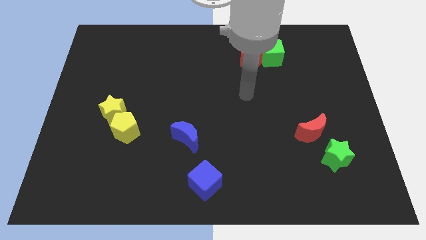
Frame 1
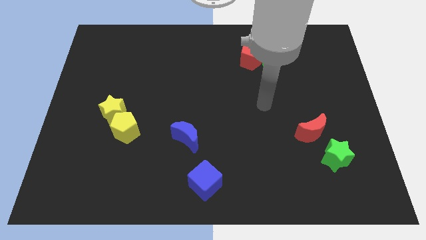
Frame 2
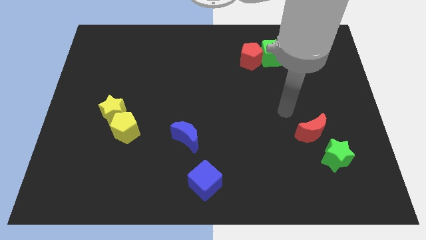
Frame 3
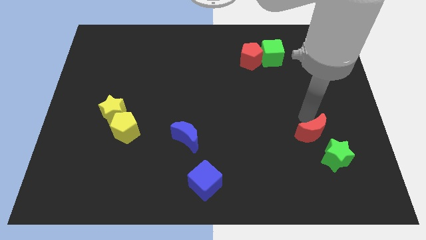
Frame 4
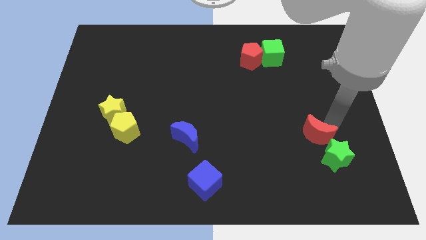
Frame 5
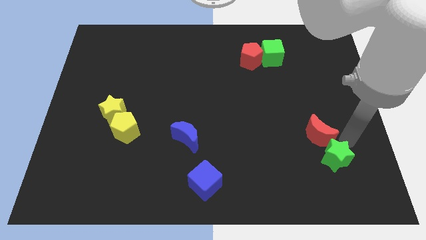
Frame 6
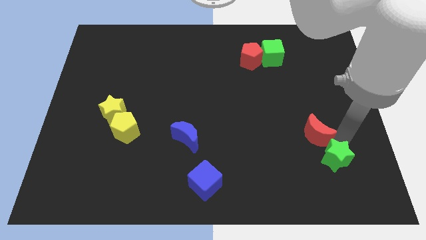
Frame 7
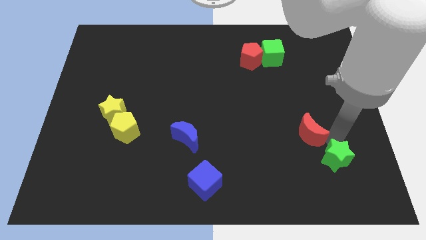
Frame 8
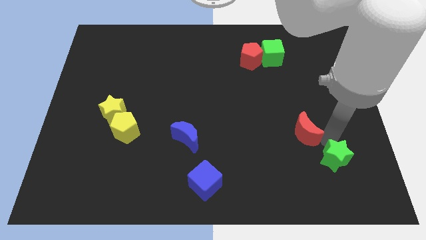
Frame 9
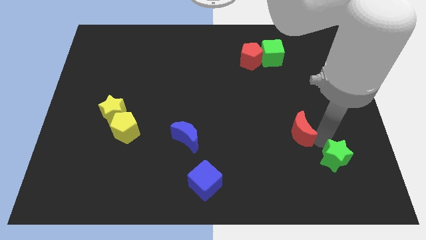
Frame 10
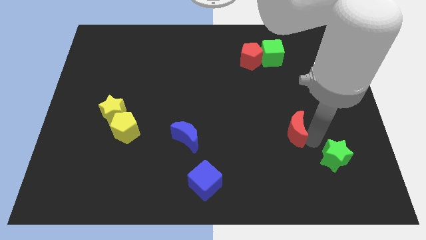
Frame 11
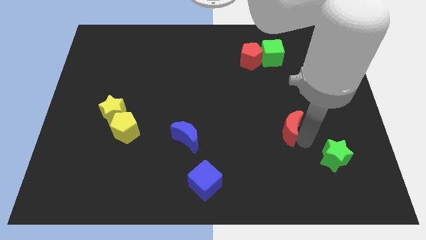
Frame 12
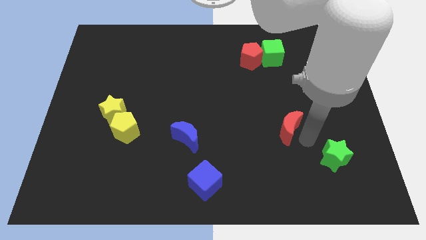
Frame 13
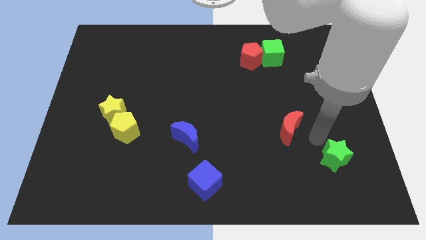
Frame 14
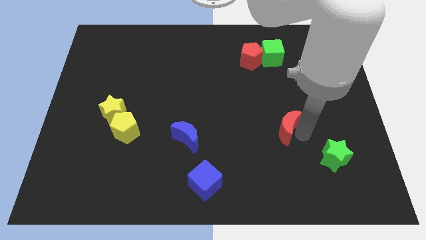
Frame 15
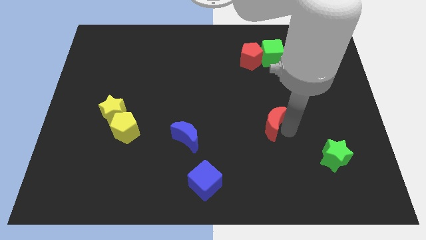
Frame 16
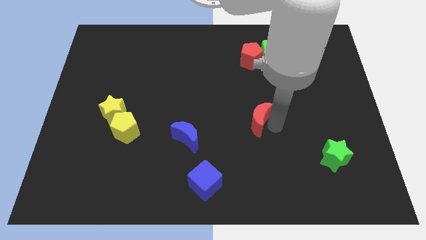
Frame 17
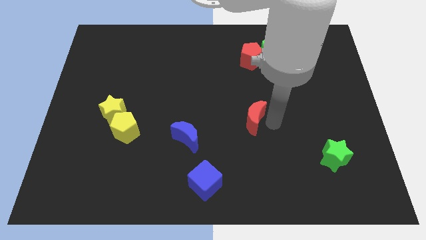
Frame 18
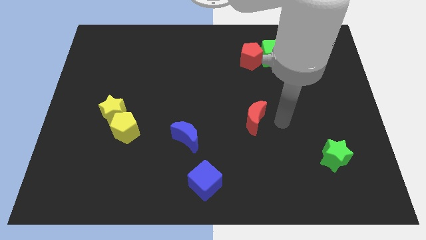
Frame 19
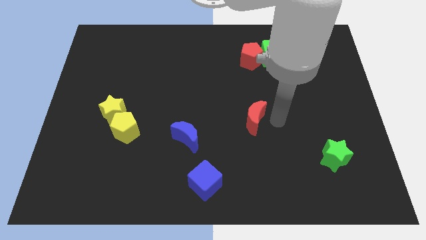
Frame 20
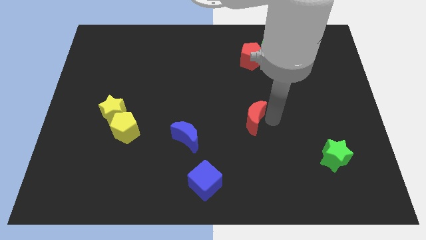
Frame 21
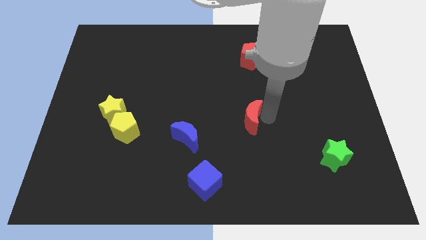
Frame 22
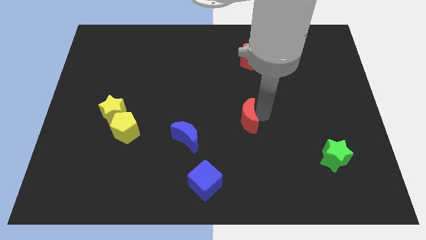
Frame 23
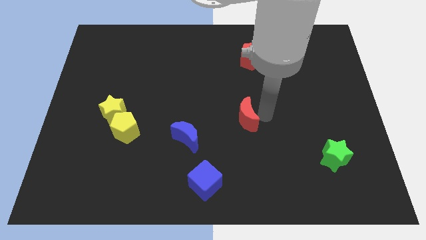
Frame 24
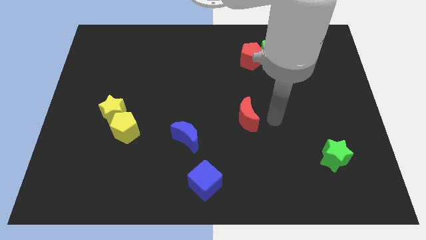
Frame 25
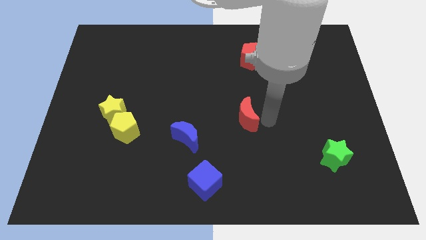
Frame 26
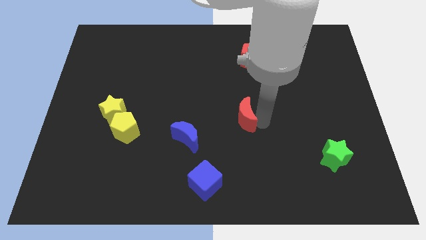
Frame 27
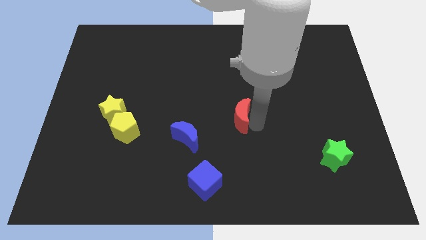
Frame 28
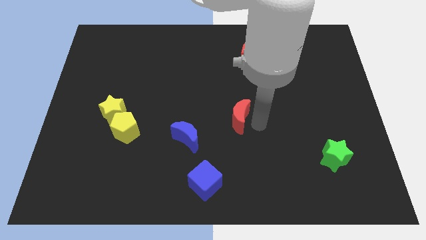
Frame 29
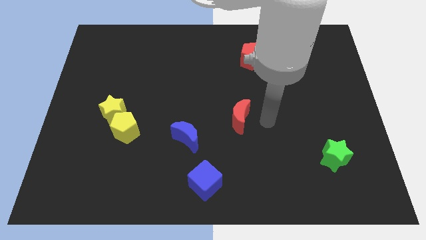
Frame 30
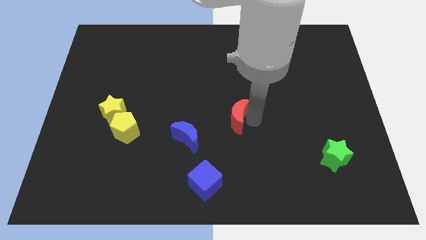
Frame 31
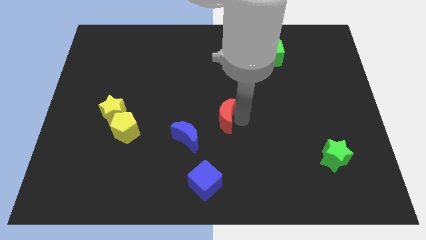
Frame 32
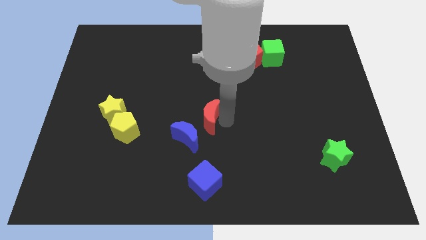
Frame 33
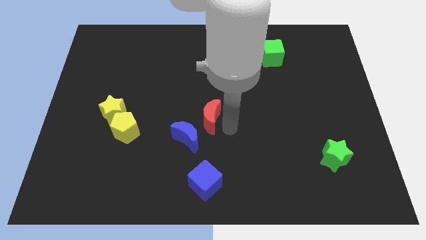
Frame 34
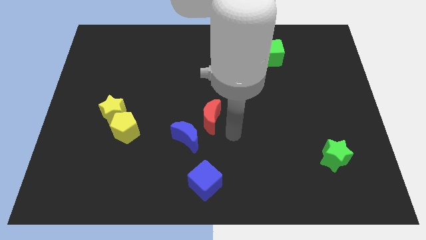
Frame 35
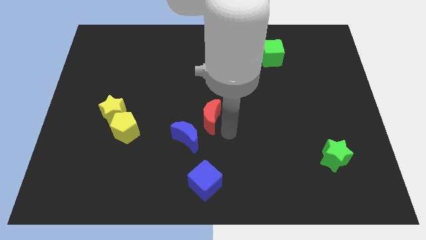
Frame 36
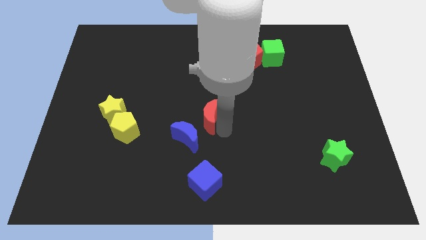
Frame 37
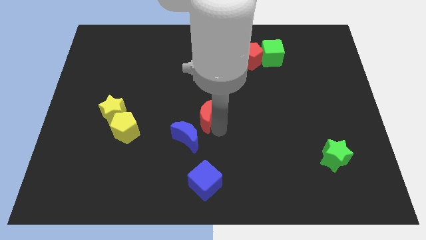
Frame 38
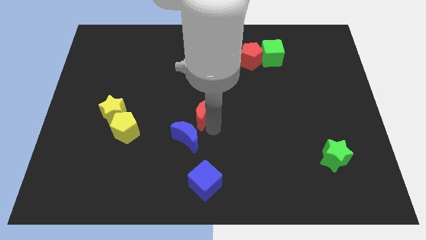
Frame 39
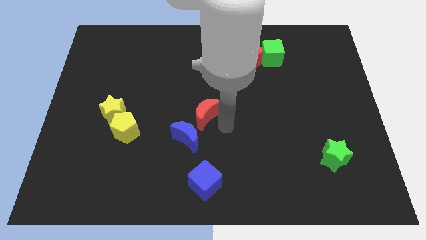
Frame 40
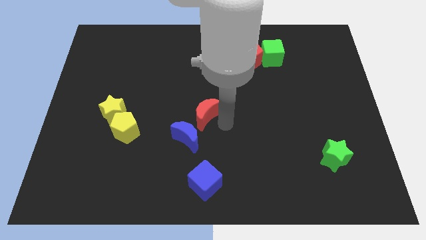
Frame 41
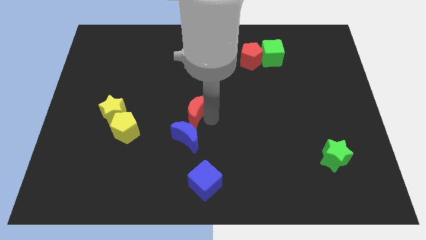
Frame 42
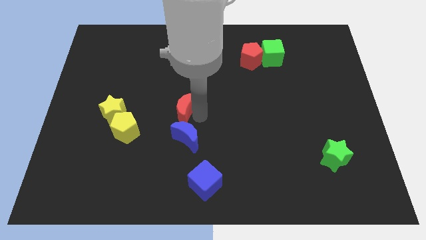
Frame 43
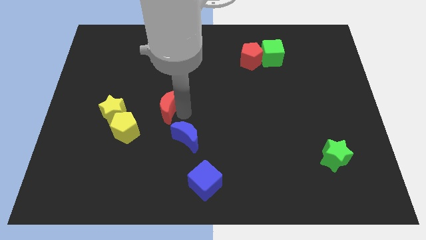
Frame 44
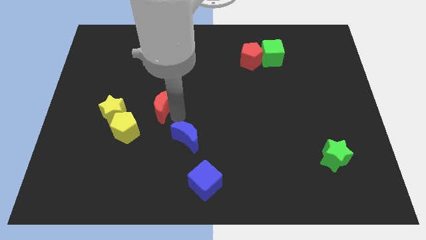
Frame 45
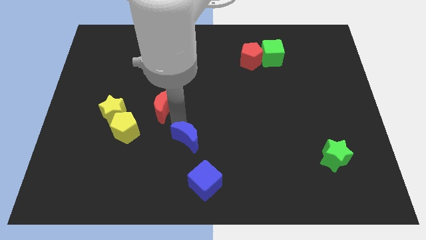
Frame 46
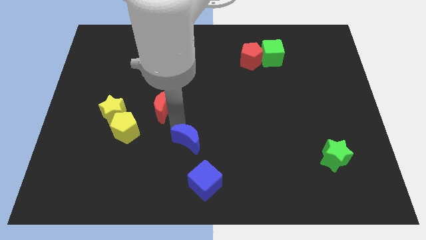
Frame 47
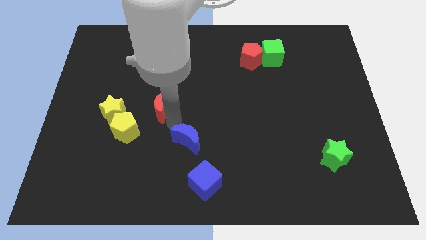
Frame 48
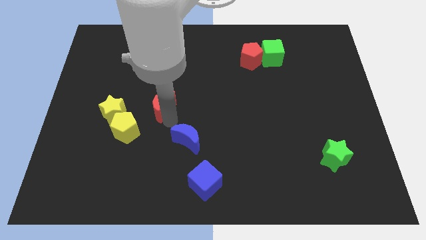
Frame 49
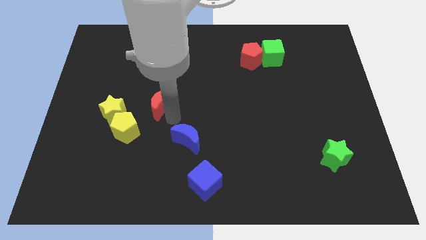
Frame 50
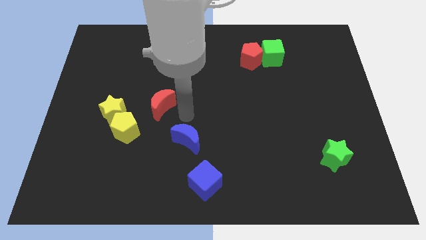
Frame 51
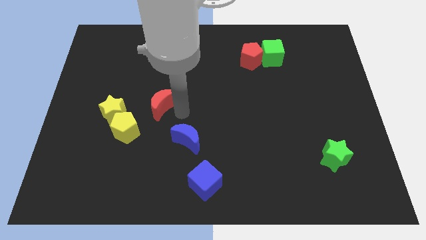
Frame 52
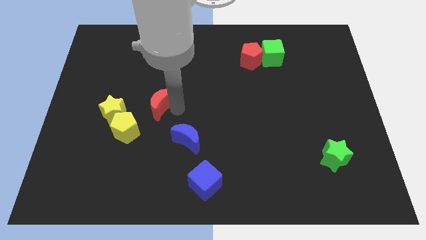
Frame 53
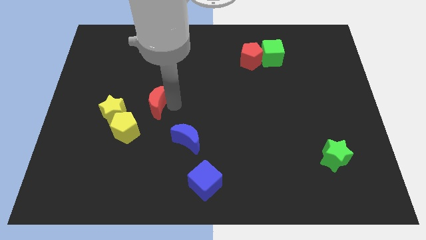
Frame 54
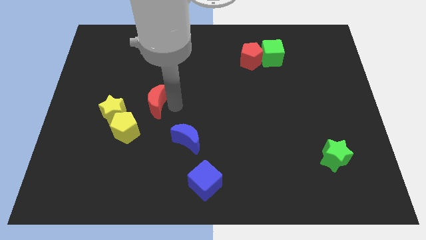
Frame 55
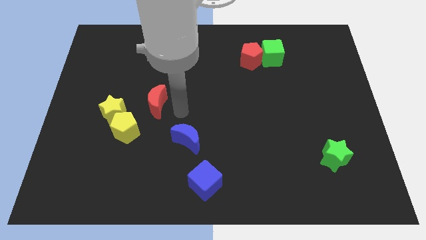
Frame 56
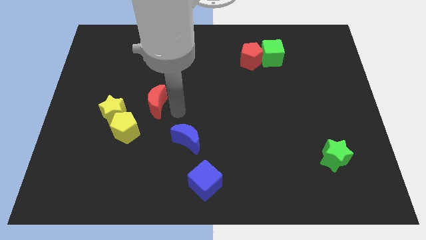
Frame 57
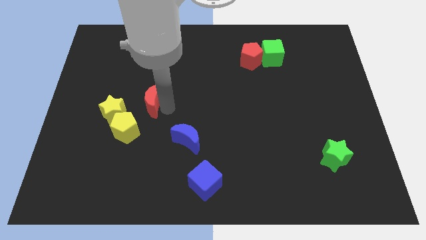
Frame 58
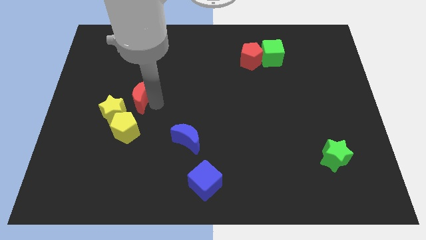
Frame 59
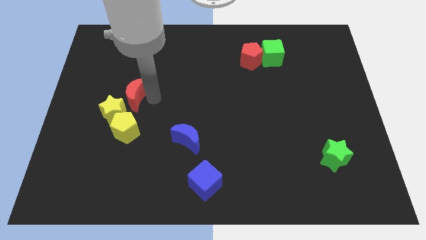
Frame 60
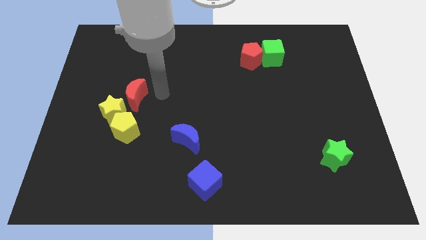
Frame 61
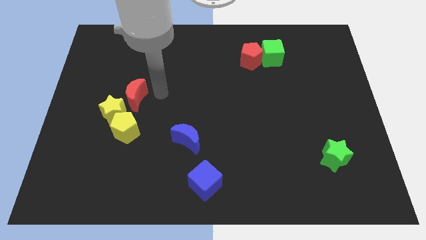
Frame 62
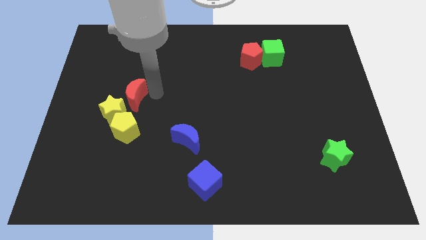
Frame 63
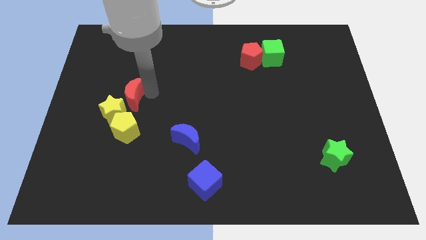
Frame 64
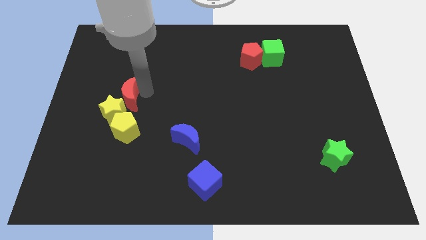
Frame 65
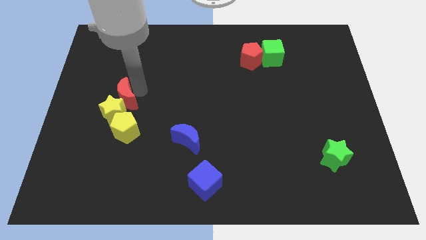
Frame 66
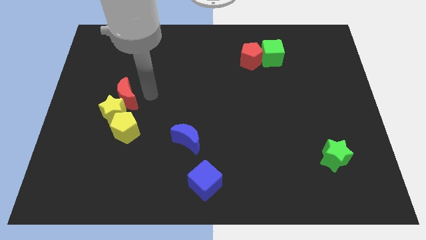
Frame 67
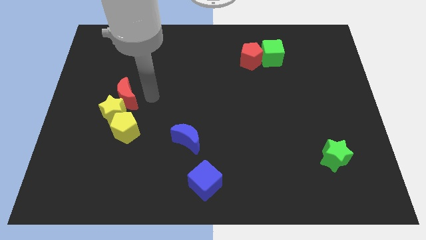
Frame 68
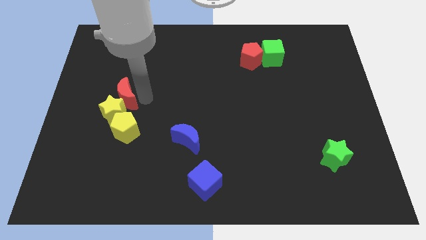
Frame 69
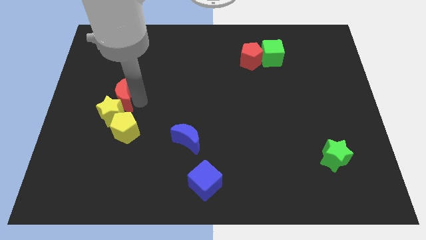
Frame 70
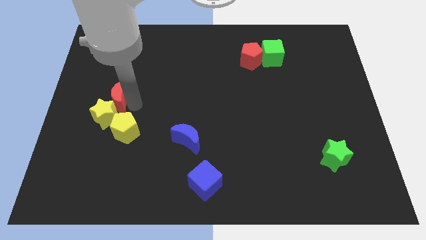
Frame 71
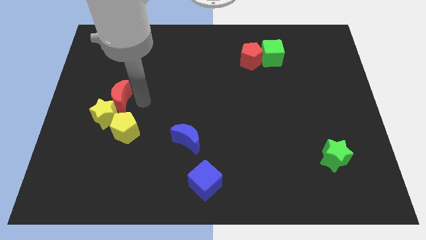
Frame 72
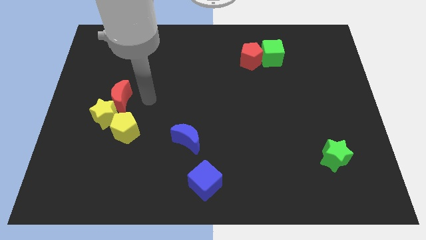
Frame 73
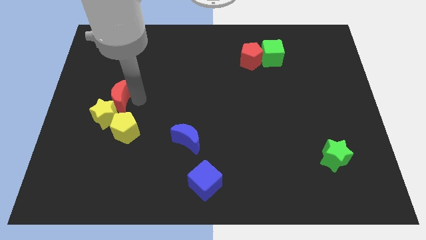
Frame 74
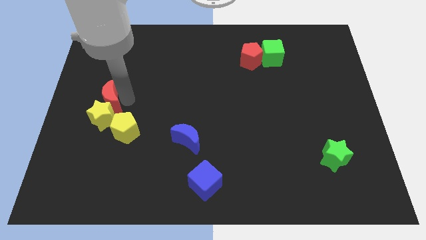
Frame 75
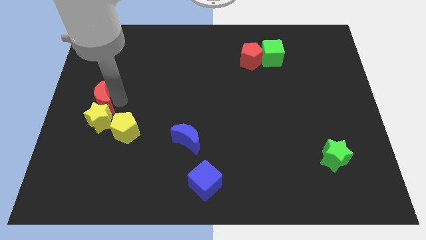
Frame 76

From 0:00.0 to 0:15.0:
put the red moon to the left side of the board
